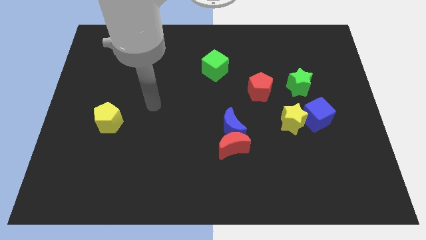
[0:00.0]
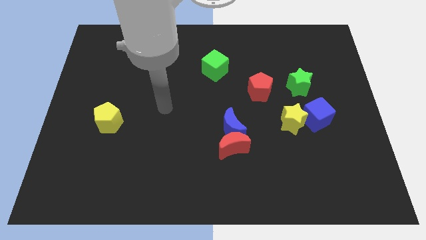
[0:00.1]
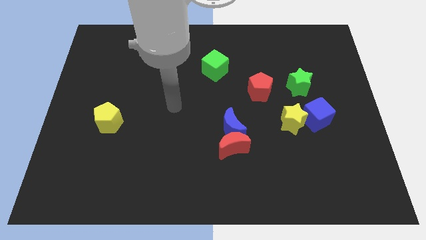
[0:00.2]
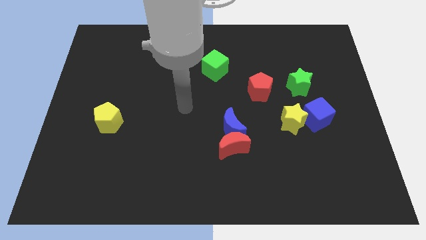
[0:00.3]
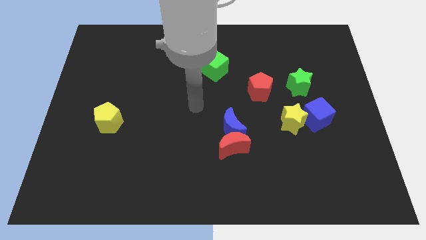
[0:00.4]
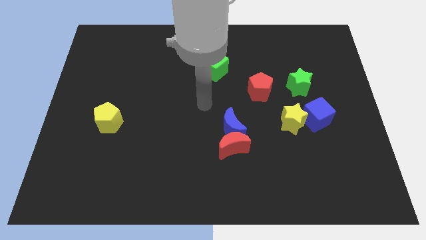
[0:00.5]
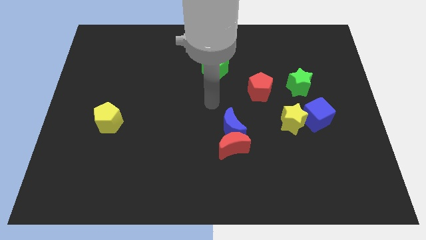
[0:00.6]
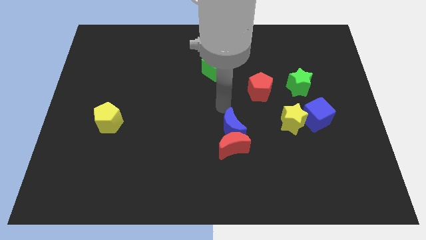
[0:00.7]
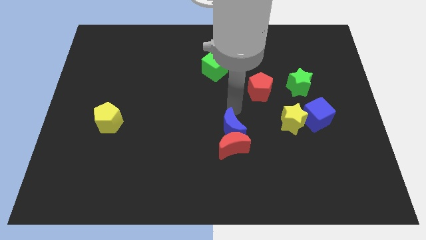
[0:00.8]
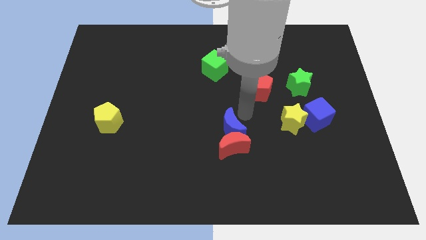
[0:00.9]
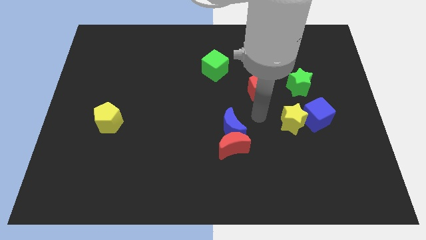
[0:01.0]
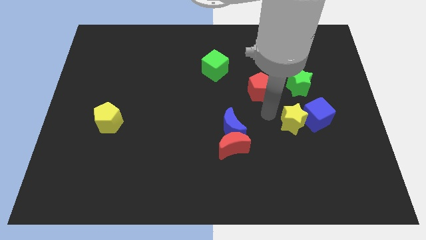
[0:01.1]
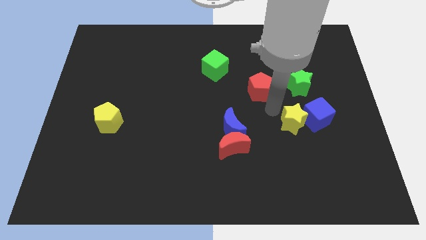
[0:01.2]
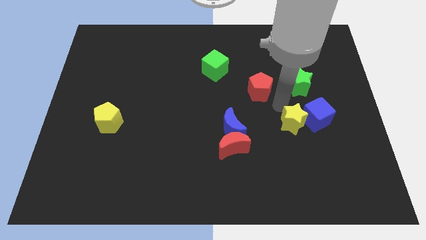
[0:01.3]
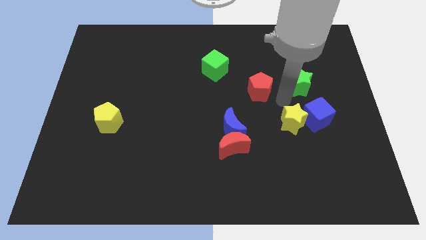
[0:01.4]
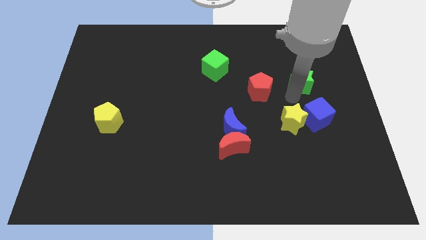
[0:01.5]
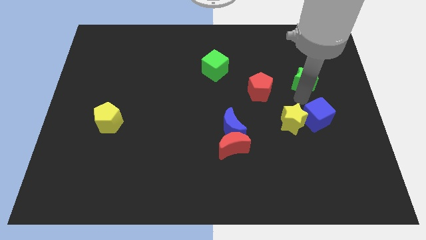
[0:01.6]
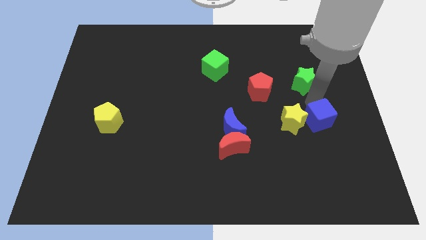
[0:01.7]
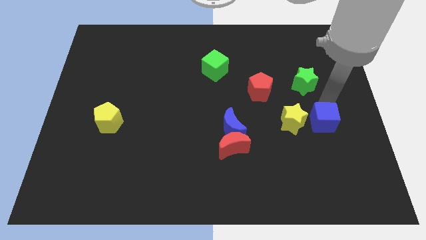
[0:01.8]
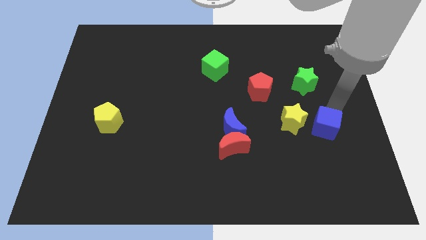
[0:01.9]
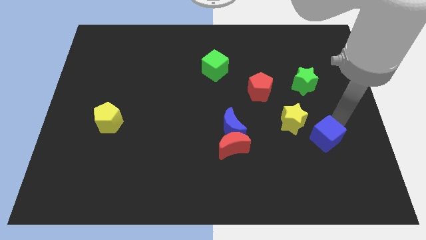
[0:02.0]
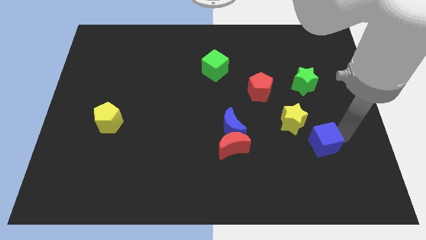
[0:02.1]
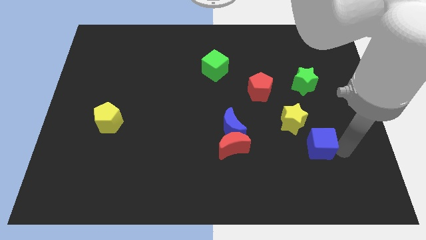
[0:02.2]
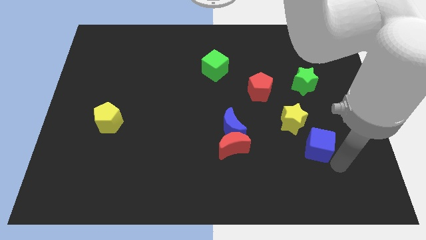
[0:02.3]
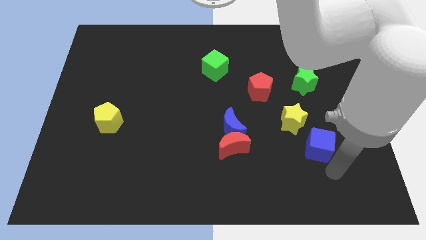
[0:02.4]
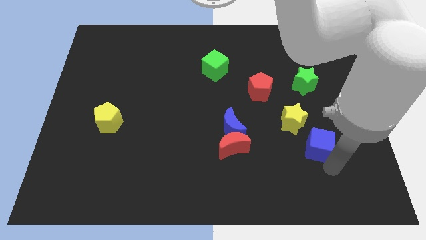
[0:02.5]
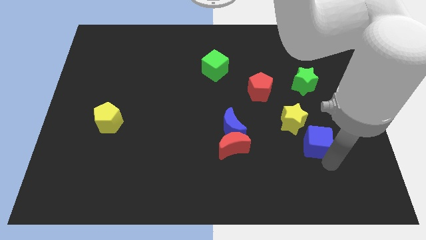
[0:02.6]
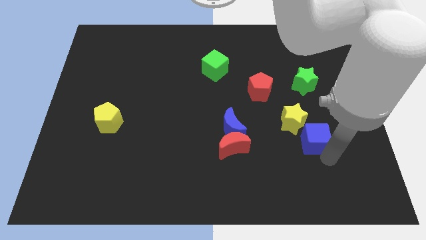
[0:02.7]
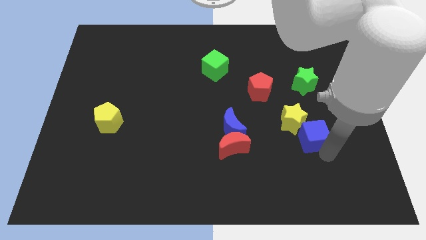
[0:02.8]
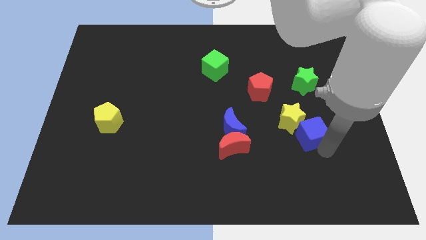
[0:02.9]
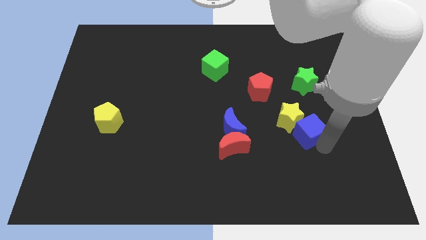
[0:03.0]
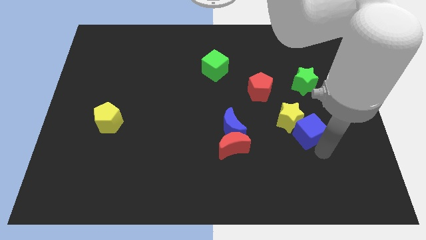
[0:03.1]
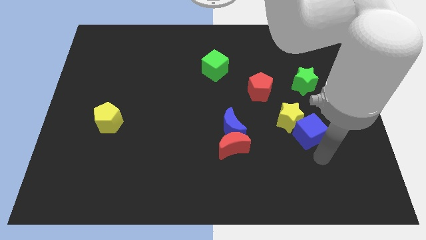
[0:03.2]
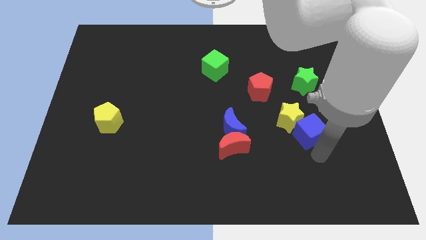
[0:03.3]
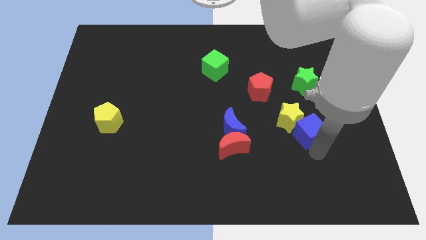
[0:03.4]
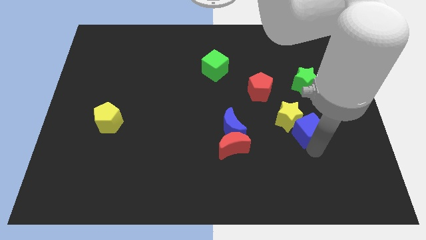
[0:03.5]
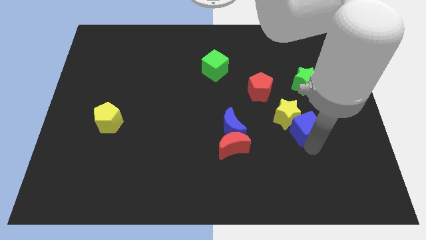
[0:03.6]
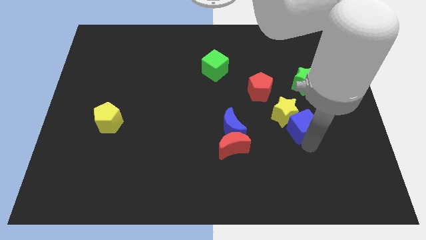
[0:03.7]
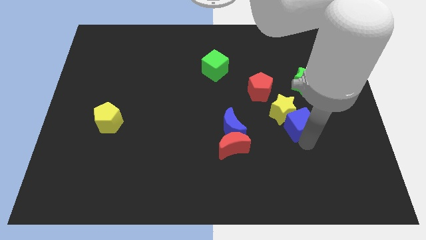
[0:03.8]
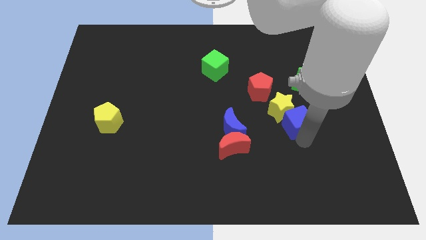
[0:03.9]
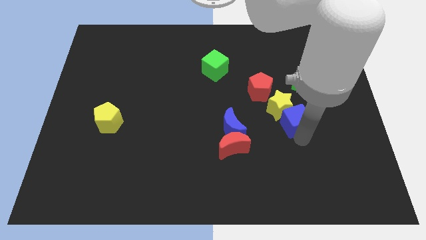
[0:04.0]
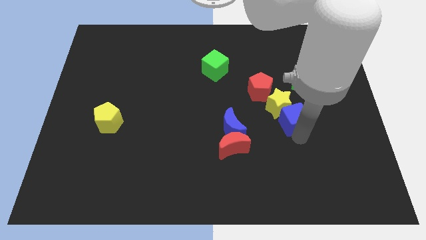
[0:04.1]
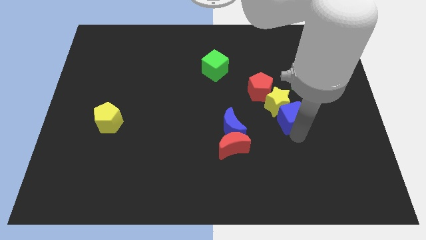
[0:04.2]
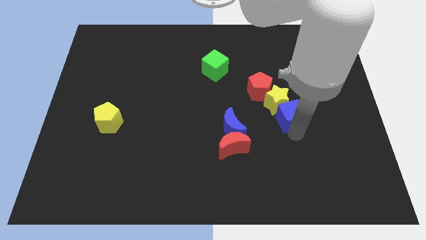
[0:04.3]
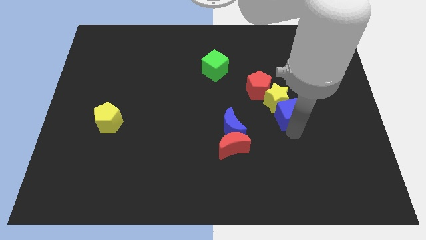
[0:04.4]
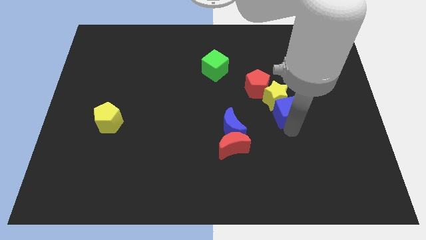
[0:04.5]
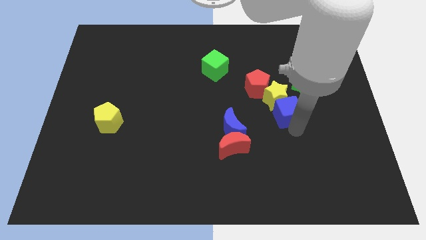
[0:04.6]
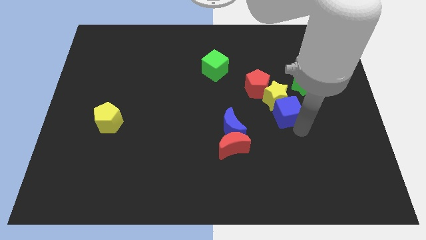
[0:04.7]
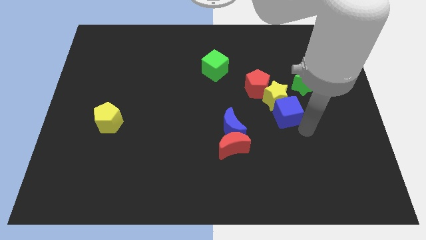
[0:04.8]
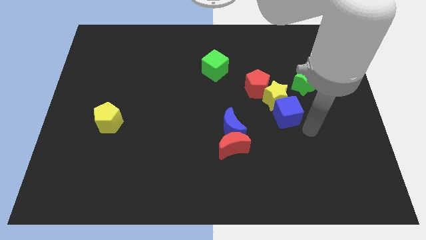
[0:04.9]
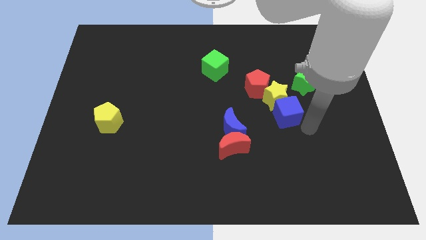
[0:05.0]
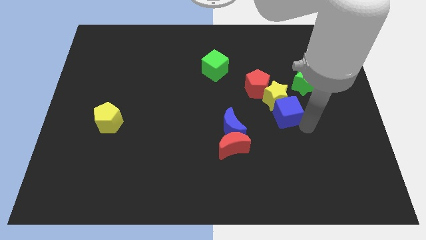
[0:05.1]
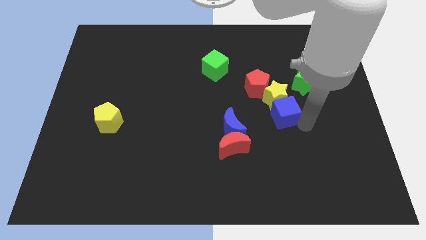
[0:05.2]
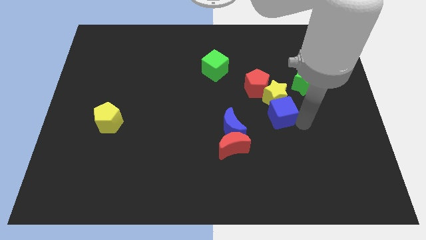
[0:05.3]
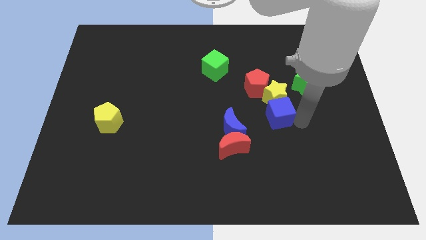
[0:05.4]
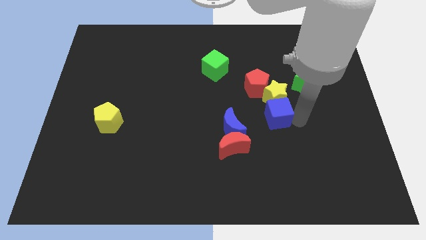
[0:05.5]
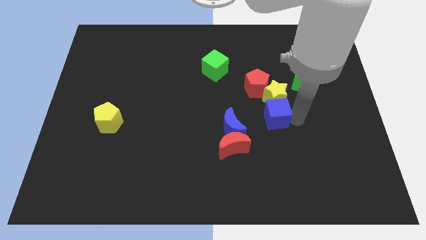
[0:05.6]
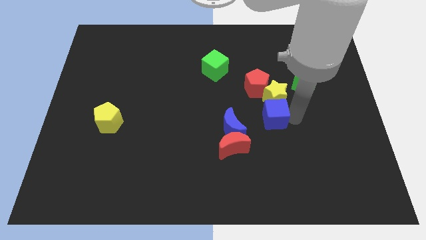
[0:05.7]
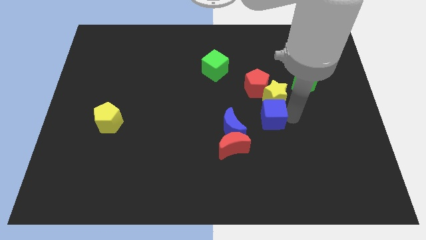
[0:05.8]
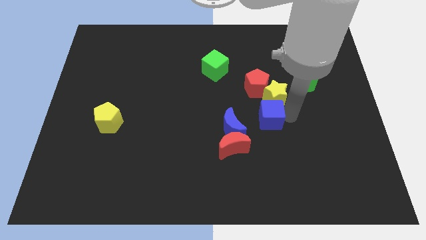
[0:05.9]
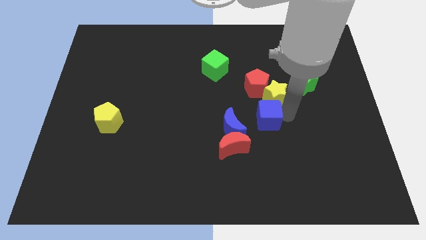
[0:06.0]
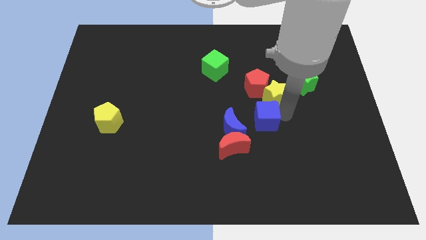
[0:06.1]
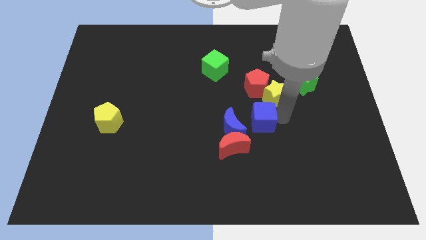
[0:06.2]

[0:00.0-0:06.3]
move the blue cube to the center
